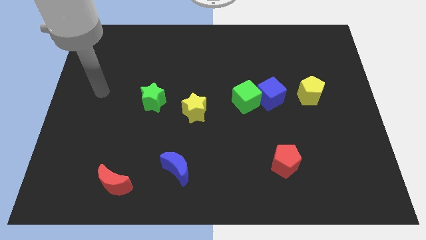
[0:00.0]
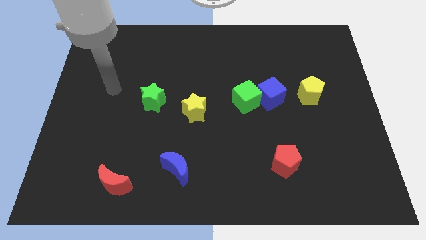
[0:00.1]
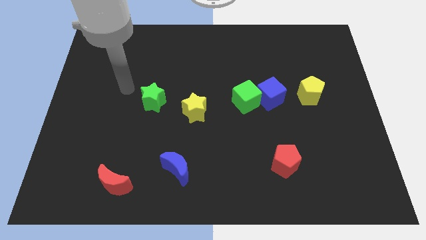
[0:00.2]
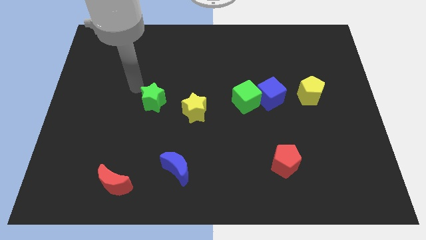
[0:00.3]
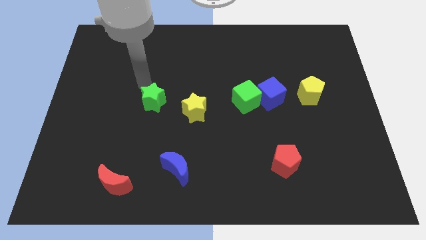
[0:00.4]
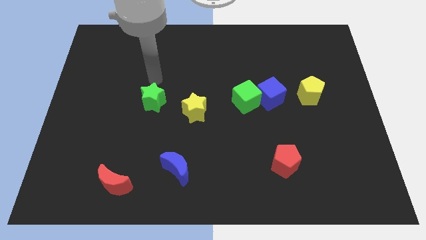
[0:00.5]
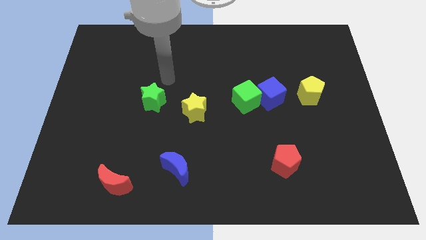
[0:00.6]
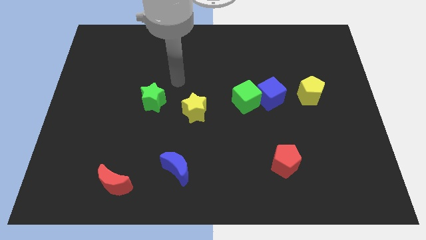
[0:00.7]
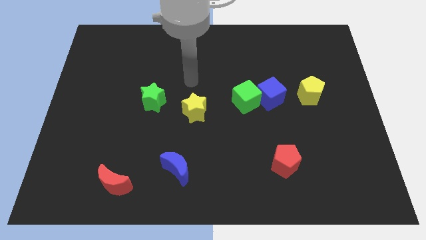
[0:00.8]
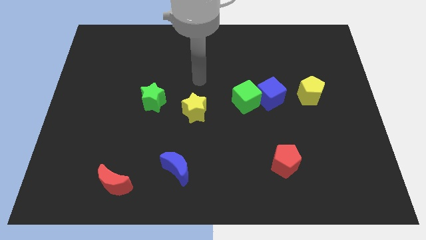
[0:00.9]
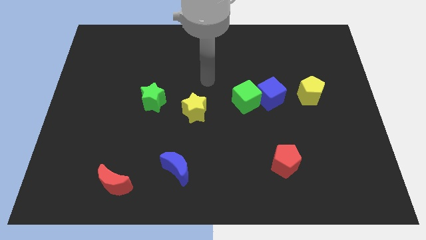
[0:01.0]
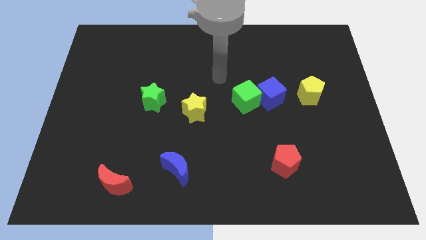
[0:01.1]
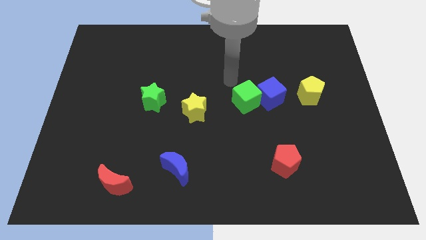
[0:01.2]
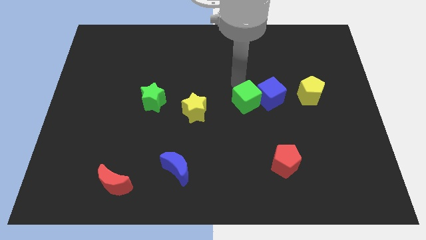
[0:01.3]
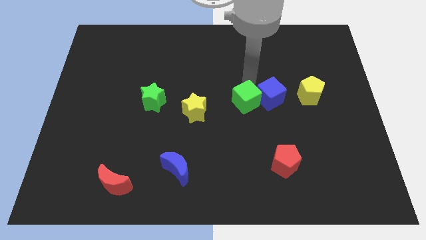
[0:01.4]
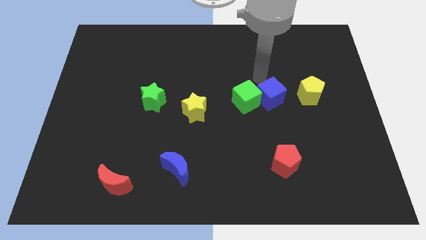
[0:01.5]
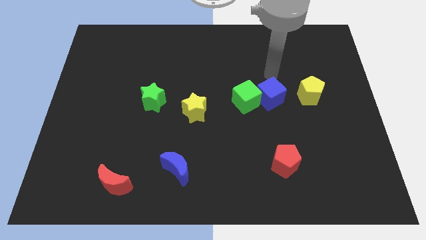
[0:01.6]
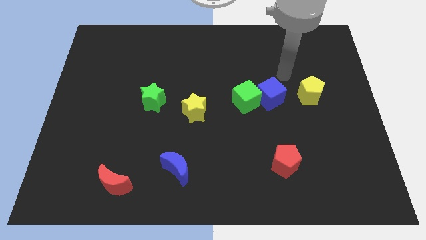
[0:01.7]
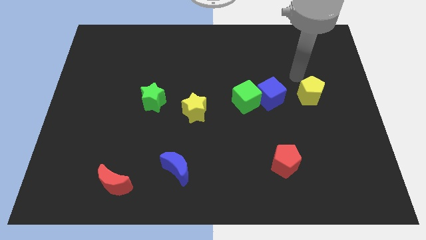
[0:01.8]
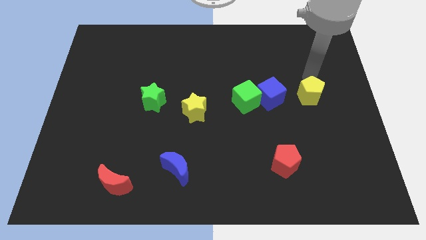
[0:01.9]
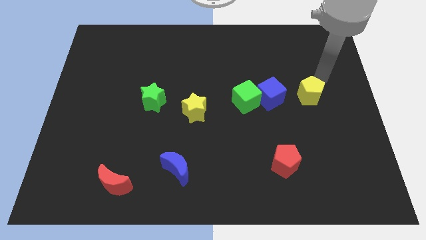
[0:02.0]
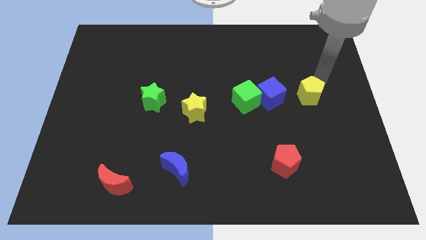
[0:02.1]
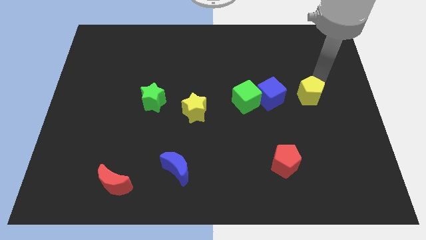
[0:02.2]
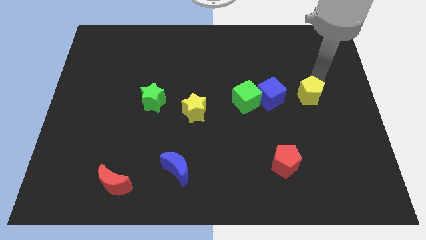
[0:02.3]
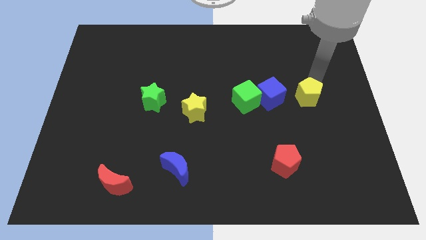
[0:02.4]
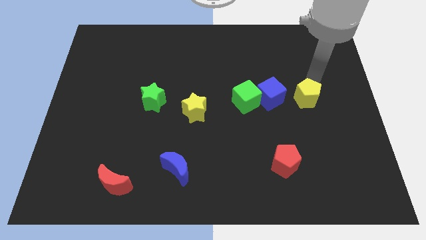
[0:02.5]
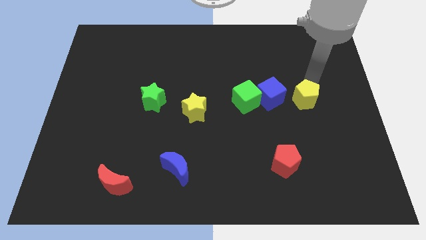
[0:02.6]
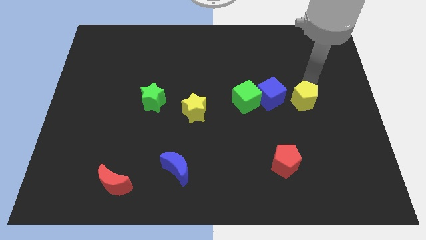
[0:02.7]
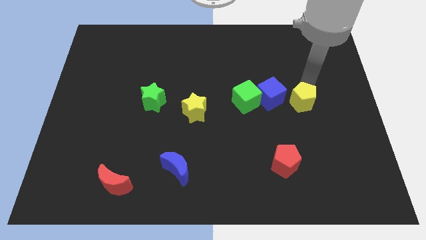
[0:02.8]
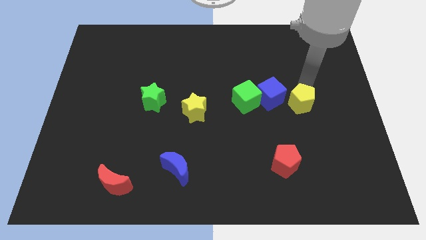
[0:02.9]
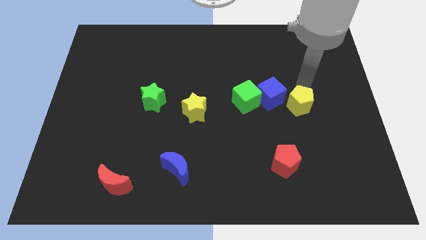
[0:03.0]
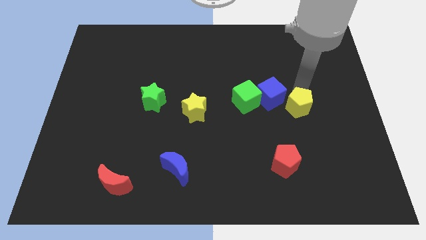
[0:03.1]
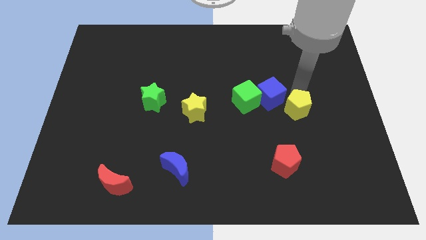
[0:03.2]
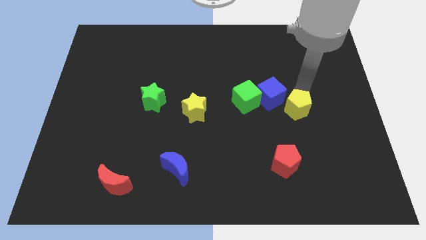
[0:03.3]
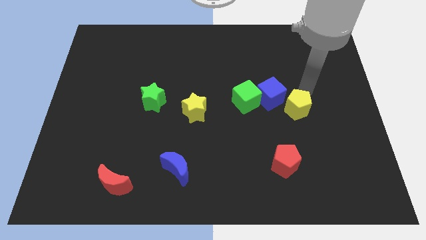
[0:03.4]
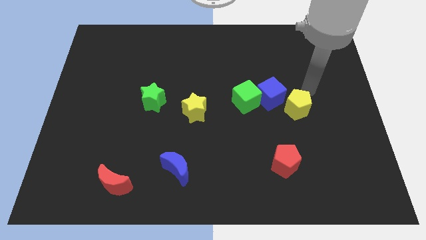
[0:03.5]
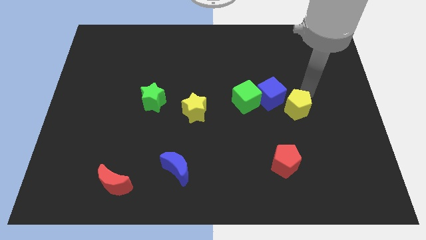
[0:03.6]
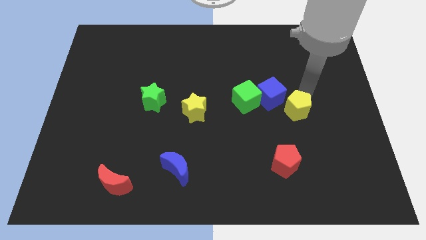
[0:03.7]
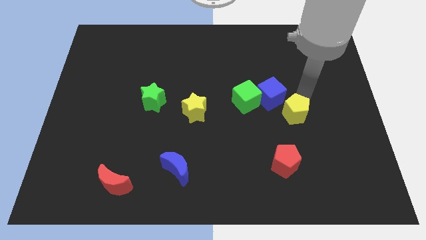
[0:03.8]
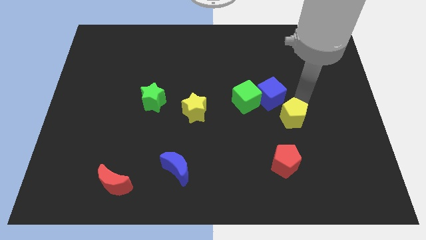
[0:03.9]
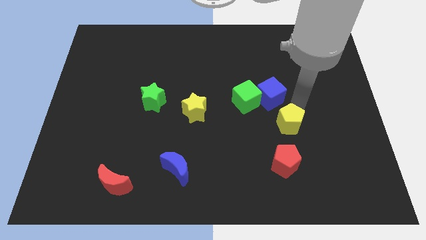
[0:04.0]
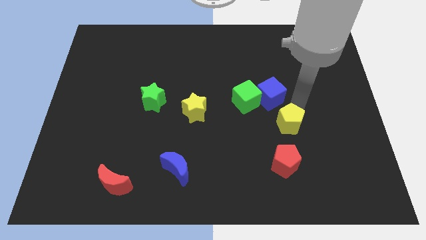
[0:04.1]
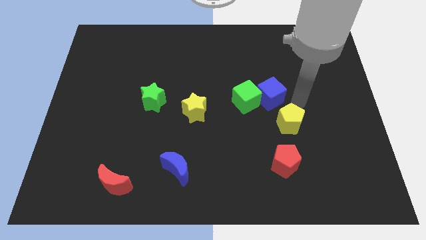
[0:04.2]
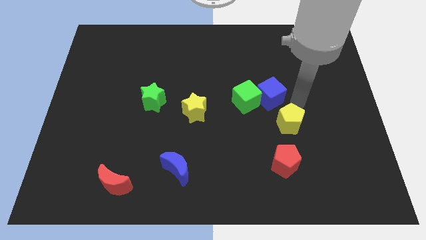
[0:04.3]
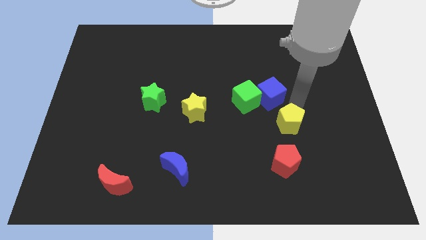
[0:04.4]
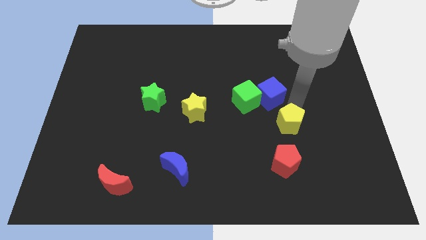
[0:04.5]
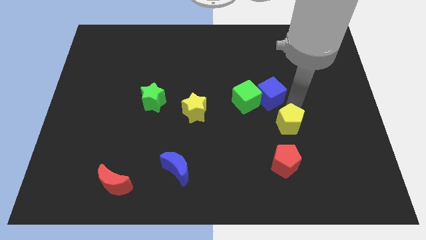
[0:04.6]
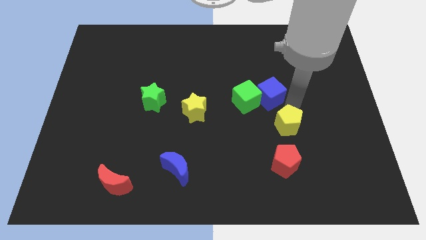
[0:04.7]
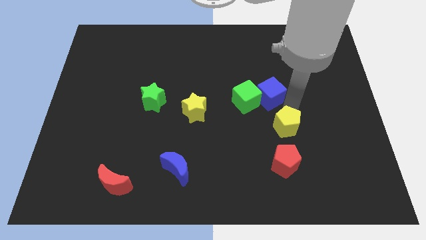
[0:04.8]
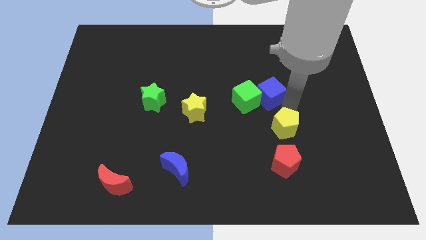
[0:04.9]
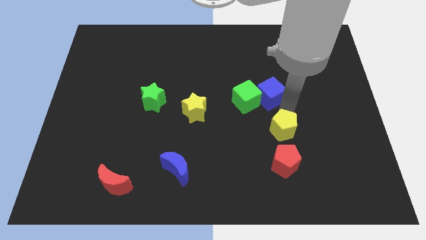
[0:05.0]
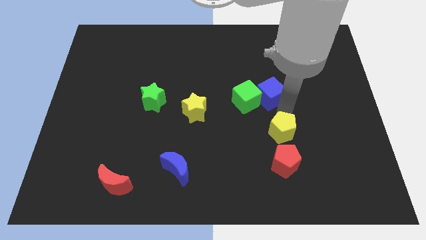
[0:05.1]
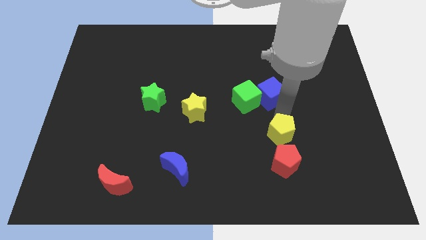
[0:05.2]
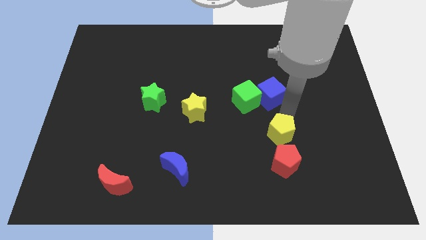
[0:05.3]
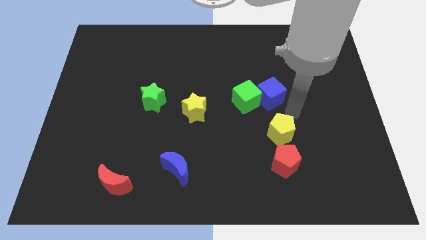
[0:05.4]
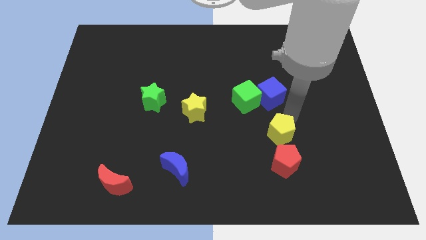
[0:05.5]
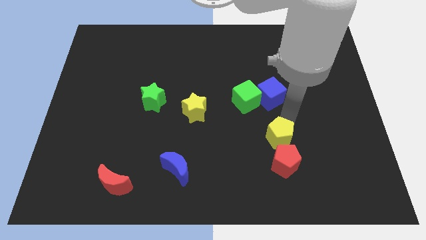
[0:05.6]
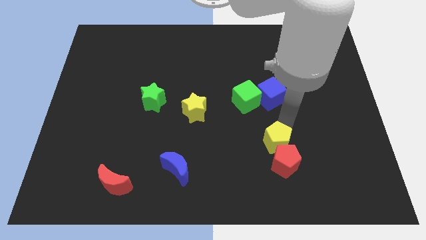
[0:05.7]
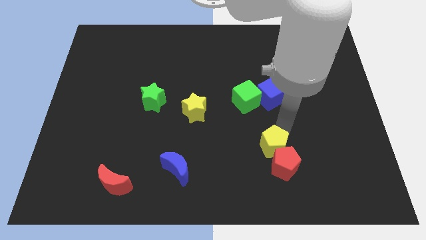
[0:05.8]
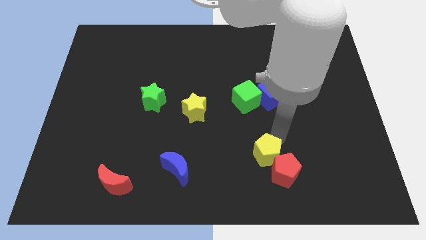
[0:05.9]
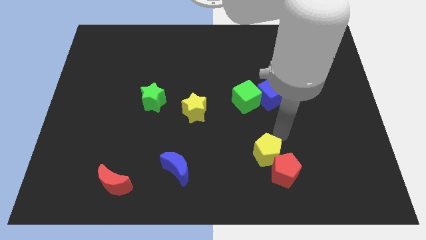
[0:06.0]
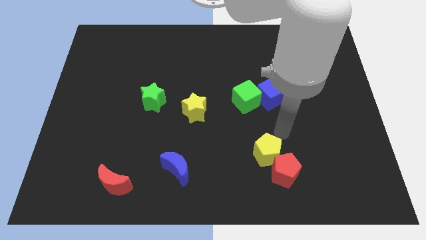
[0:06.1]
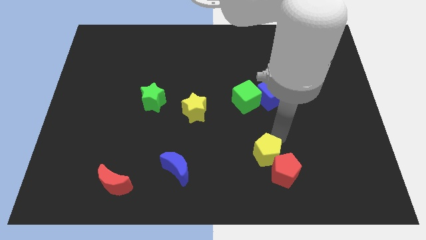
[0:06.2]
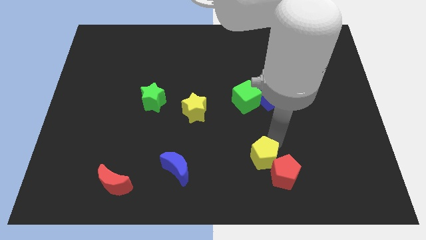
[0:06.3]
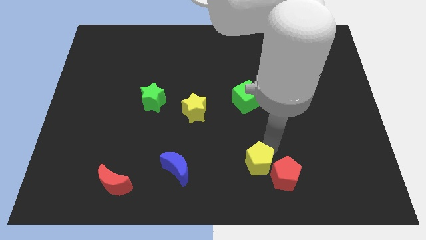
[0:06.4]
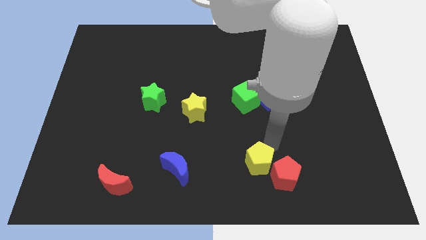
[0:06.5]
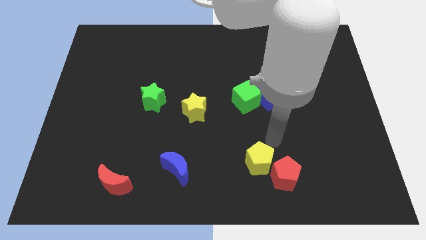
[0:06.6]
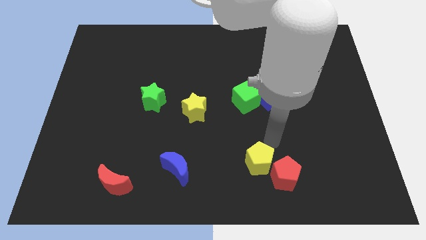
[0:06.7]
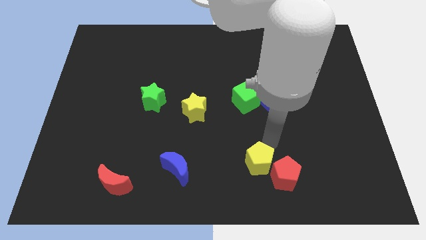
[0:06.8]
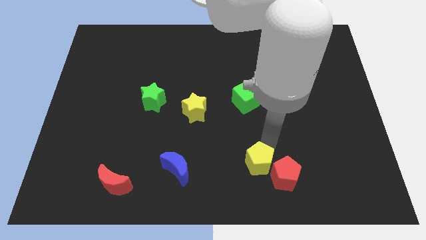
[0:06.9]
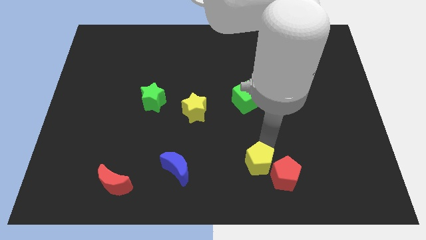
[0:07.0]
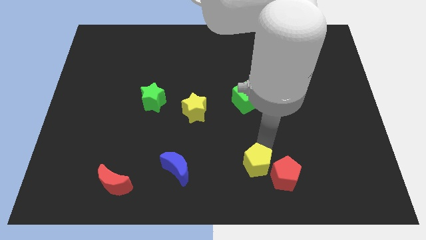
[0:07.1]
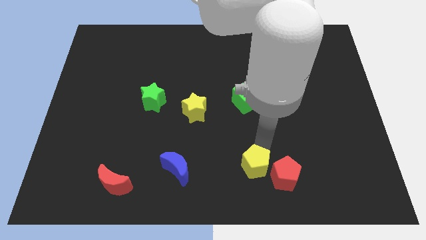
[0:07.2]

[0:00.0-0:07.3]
move the yellow pentagon to the bottom
